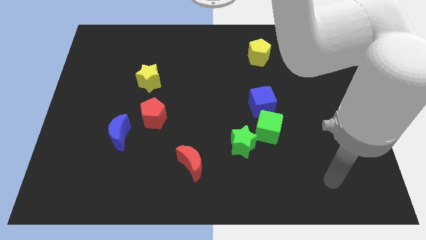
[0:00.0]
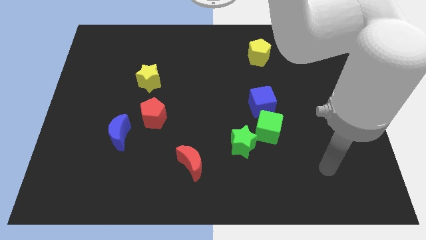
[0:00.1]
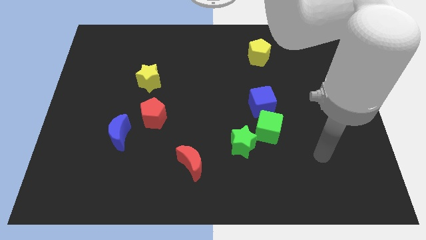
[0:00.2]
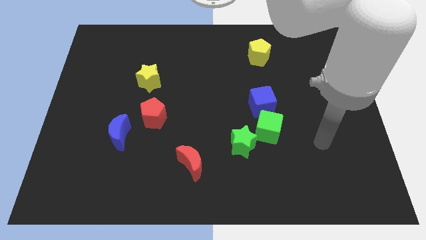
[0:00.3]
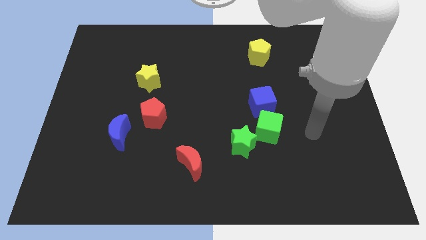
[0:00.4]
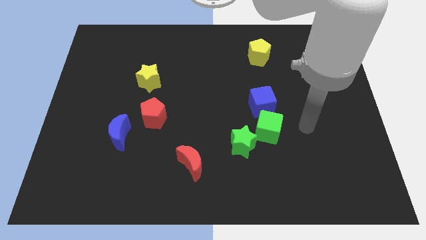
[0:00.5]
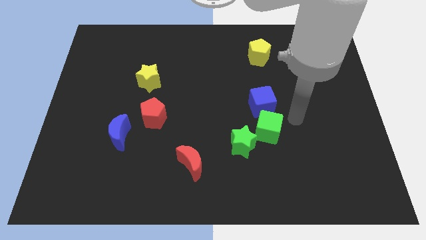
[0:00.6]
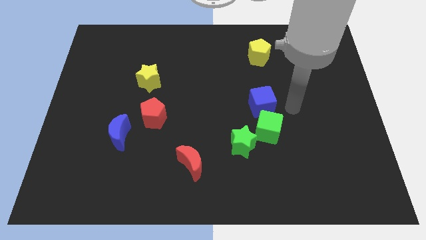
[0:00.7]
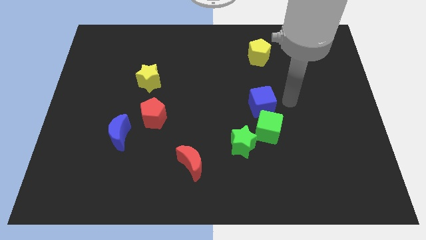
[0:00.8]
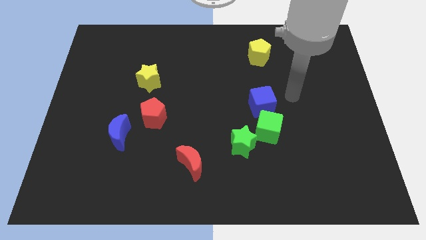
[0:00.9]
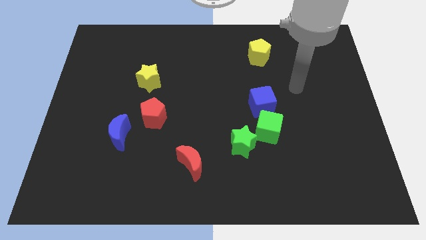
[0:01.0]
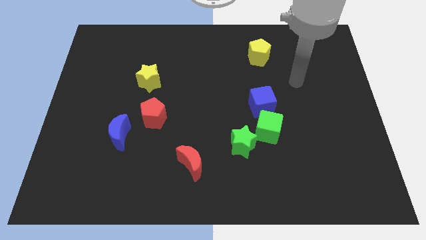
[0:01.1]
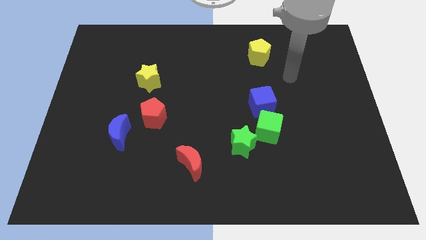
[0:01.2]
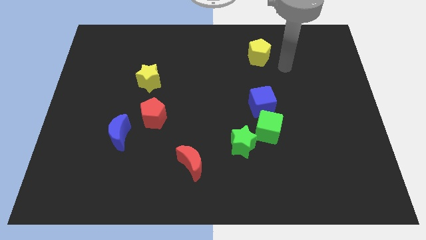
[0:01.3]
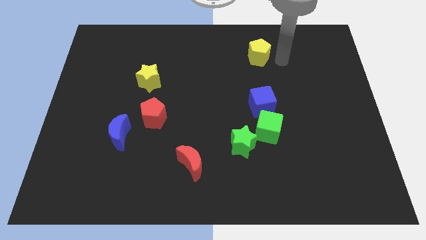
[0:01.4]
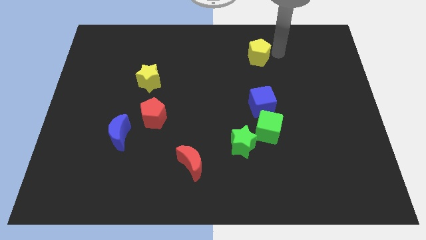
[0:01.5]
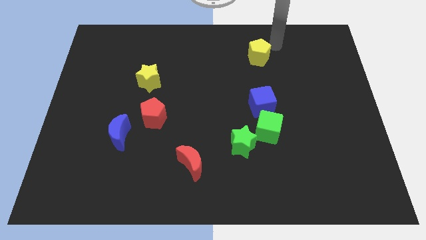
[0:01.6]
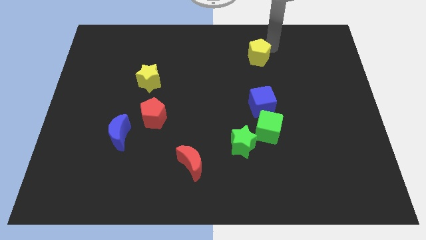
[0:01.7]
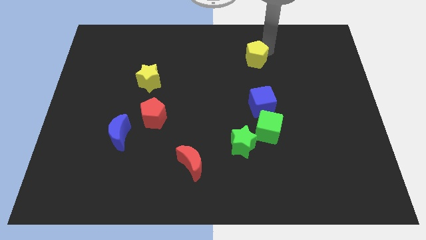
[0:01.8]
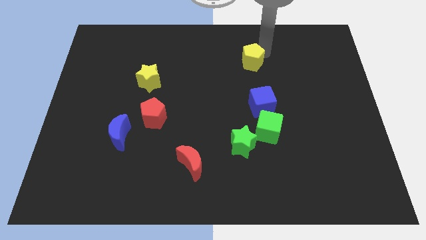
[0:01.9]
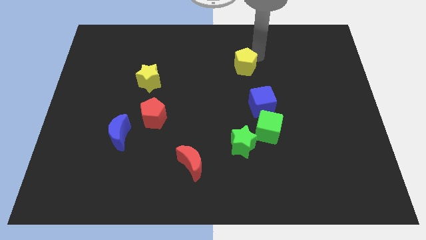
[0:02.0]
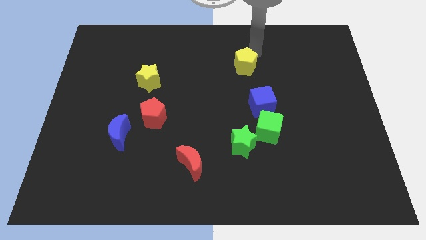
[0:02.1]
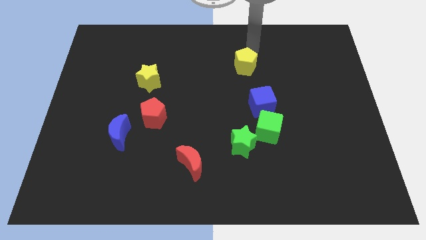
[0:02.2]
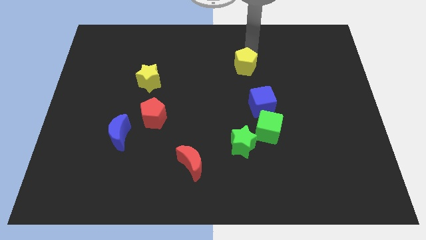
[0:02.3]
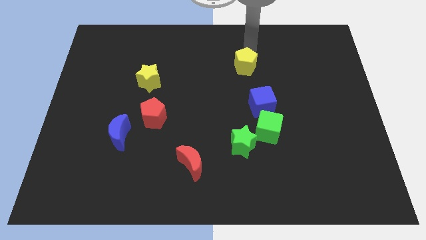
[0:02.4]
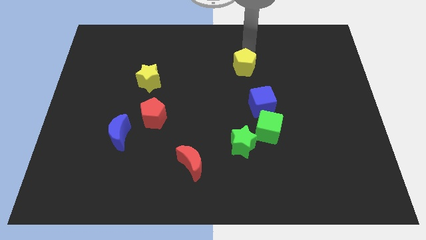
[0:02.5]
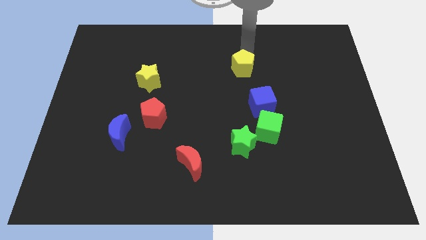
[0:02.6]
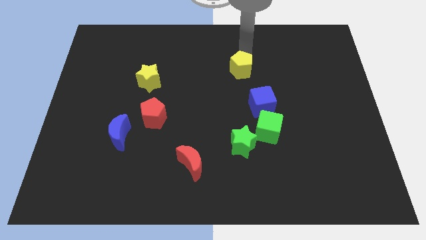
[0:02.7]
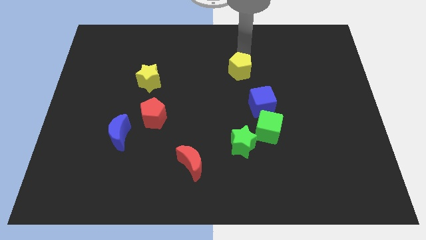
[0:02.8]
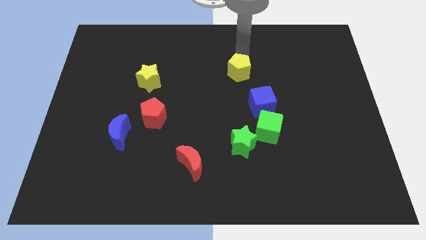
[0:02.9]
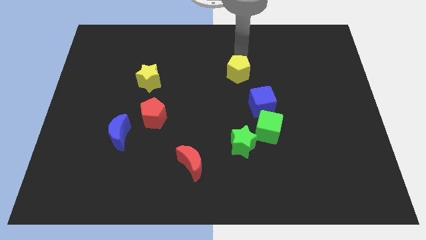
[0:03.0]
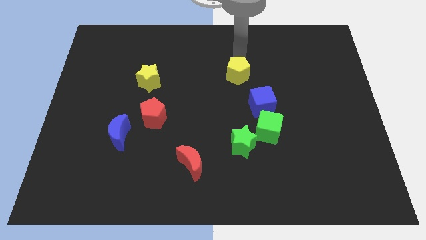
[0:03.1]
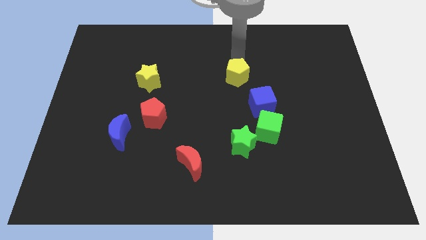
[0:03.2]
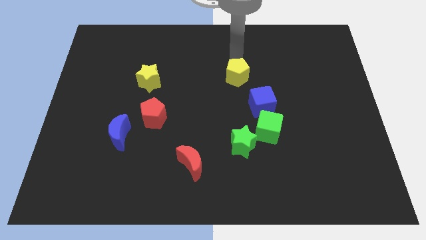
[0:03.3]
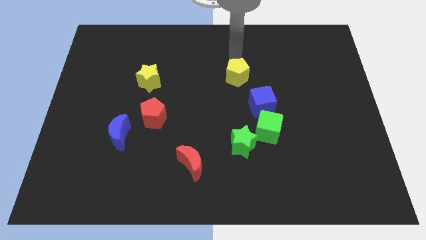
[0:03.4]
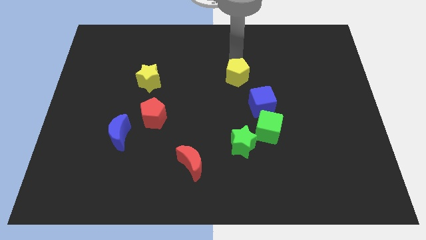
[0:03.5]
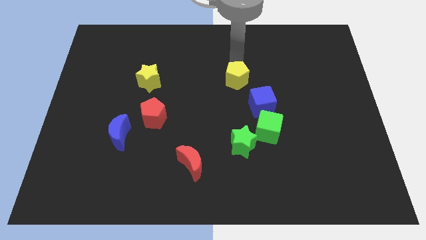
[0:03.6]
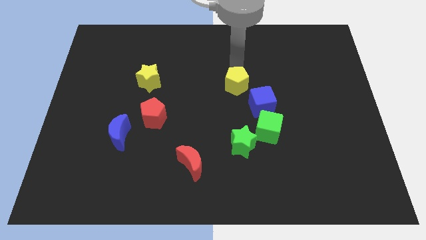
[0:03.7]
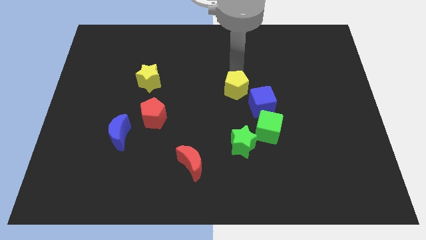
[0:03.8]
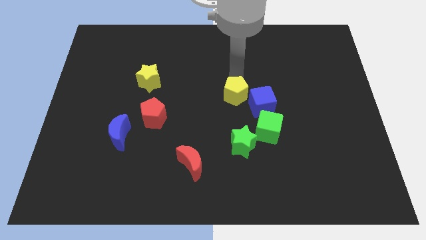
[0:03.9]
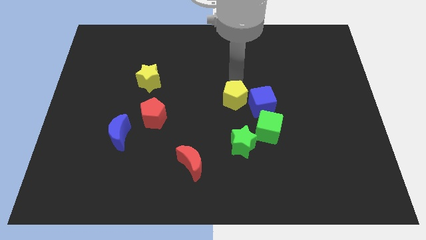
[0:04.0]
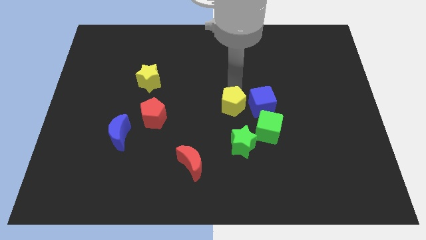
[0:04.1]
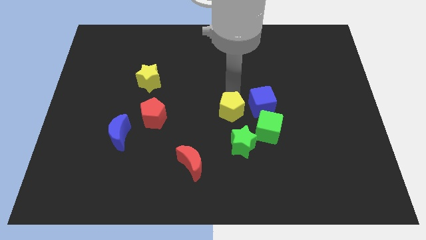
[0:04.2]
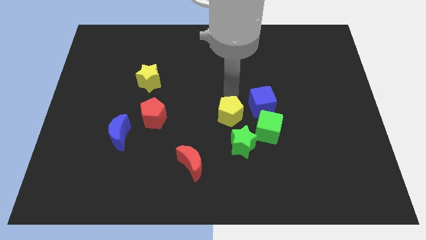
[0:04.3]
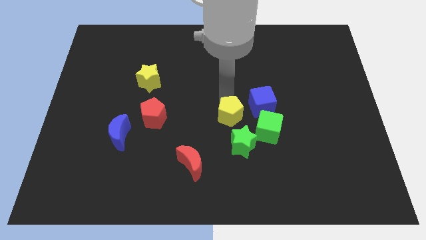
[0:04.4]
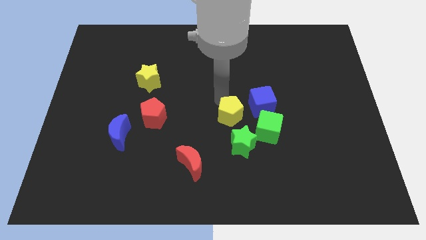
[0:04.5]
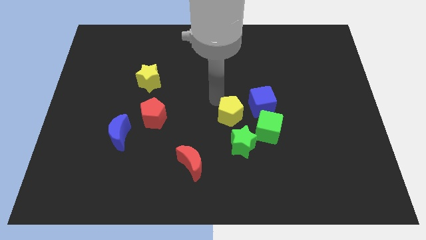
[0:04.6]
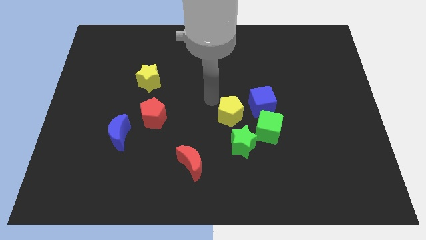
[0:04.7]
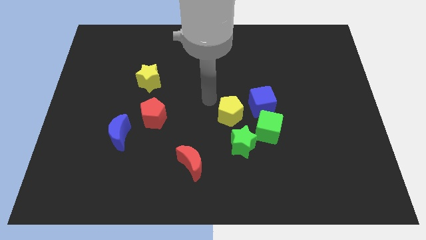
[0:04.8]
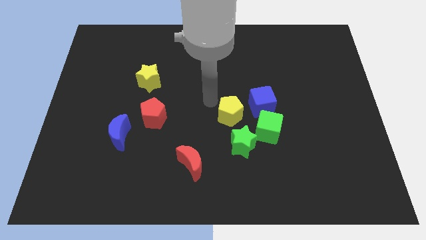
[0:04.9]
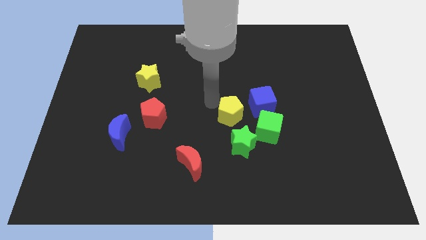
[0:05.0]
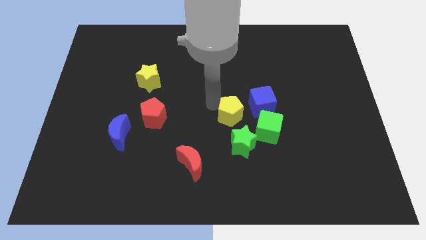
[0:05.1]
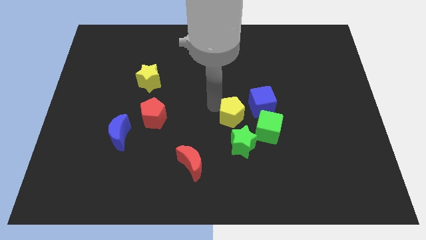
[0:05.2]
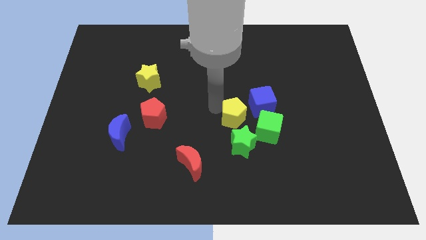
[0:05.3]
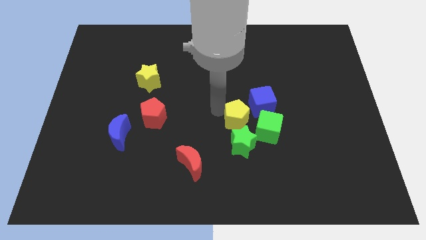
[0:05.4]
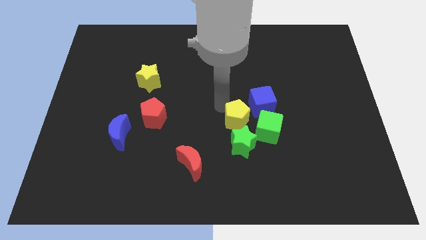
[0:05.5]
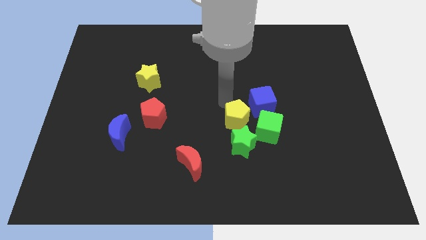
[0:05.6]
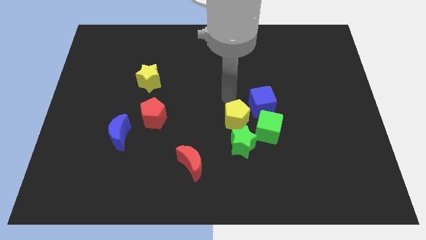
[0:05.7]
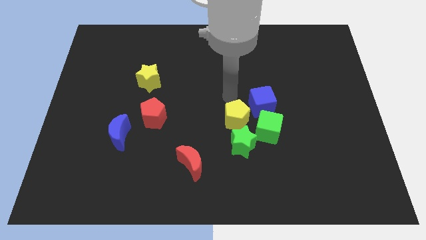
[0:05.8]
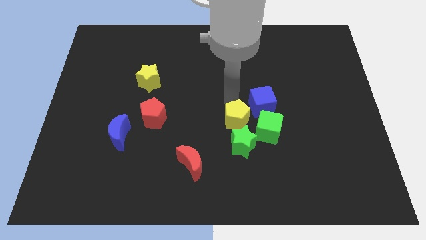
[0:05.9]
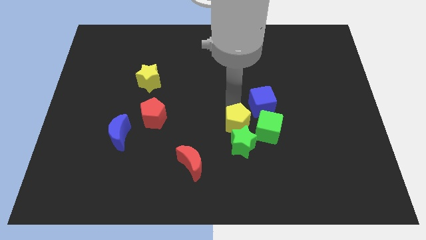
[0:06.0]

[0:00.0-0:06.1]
put the yellow pentagon close to the green star

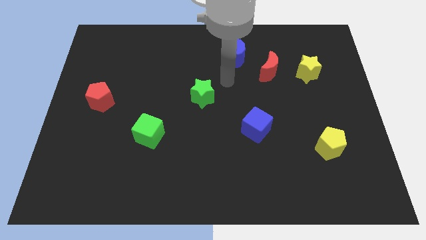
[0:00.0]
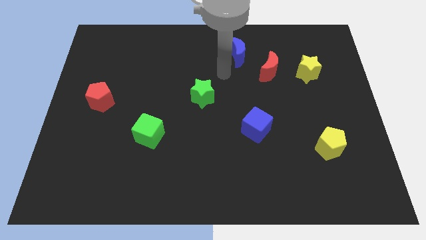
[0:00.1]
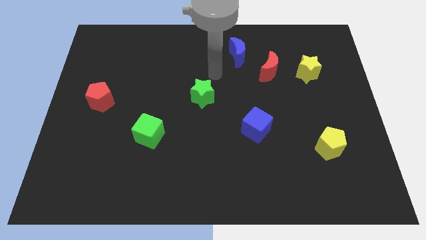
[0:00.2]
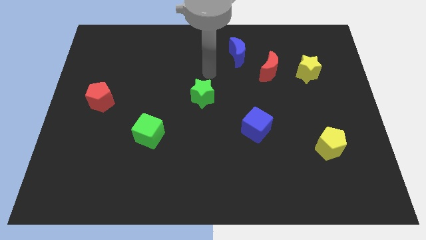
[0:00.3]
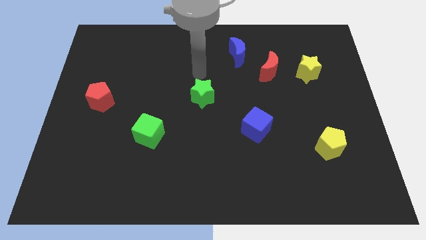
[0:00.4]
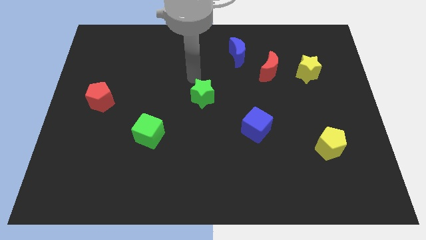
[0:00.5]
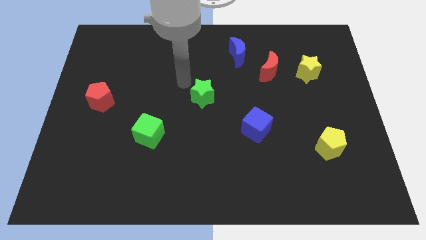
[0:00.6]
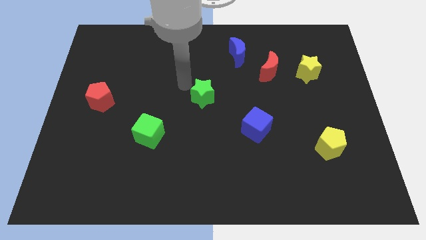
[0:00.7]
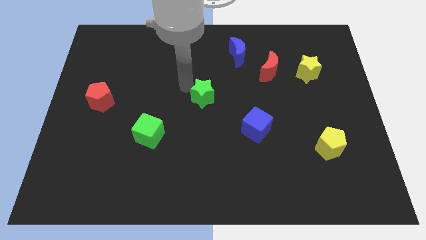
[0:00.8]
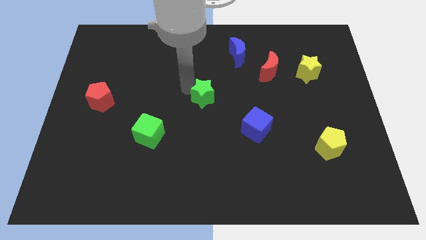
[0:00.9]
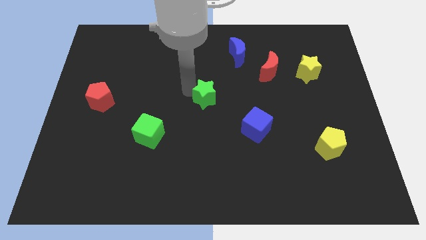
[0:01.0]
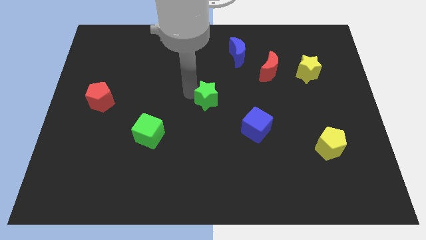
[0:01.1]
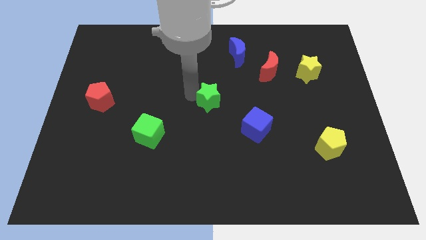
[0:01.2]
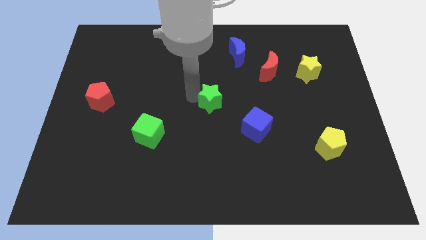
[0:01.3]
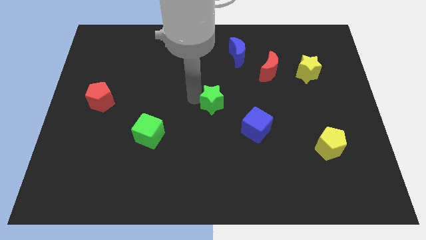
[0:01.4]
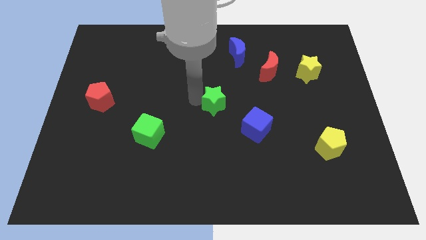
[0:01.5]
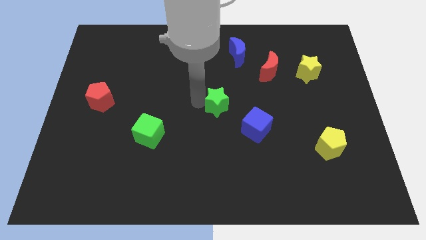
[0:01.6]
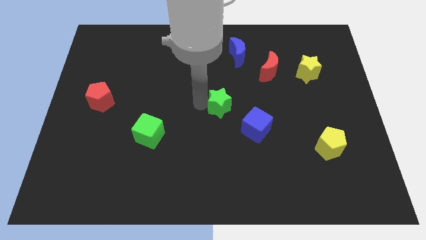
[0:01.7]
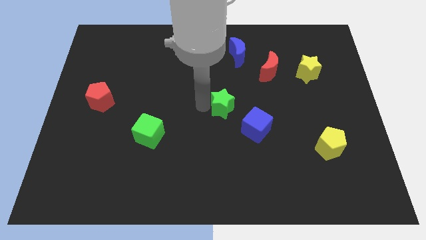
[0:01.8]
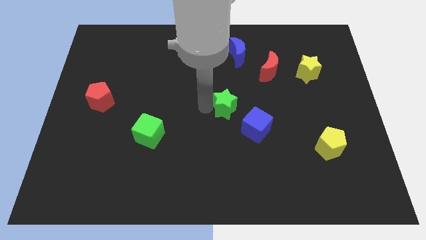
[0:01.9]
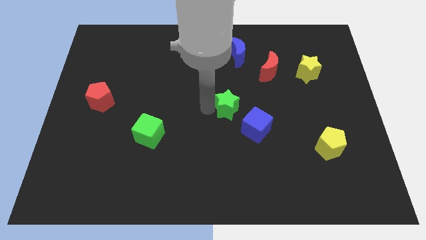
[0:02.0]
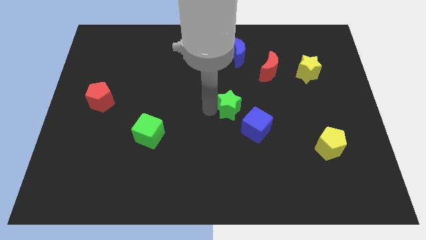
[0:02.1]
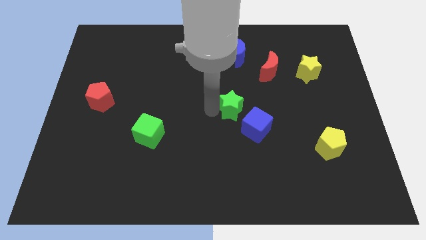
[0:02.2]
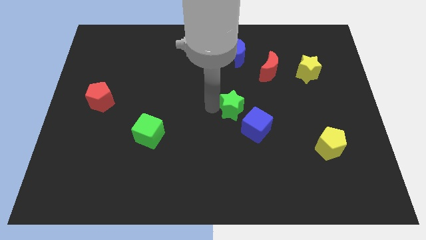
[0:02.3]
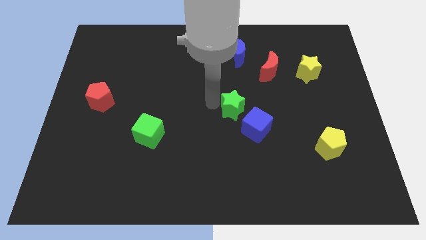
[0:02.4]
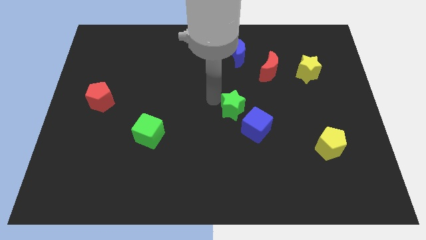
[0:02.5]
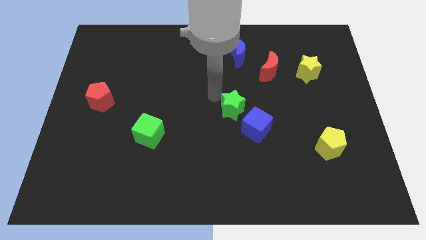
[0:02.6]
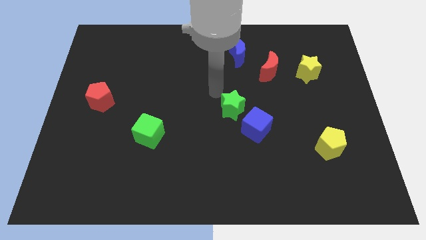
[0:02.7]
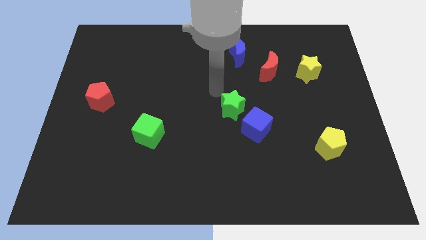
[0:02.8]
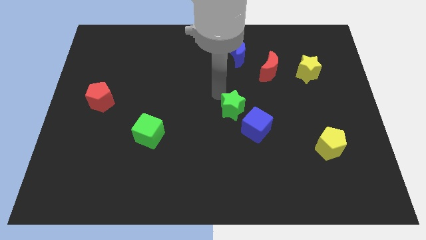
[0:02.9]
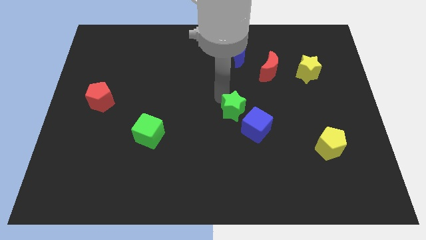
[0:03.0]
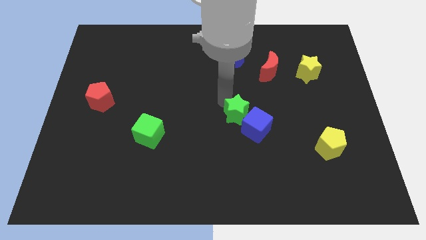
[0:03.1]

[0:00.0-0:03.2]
put the green star next to the blue cube
